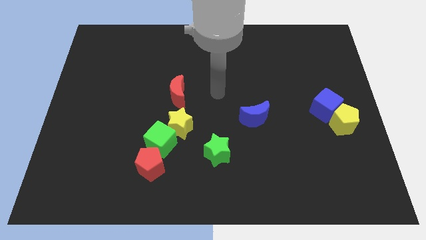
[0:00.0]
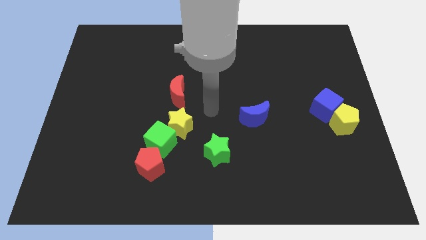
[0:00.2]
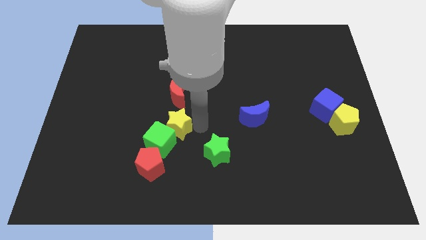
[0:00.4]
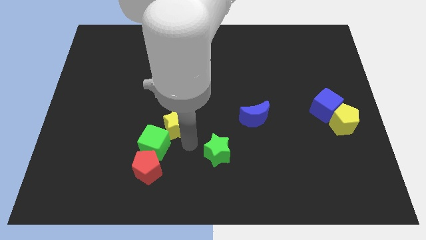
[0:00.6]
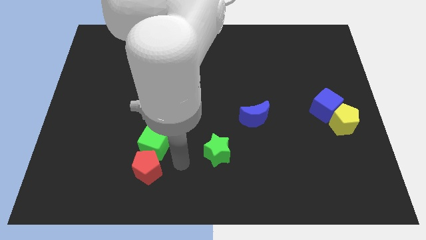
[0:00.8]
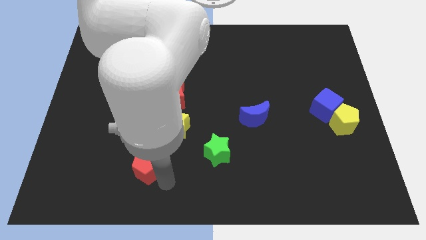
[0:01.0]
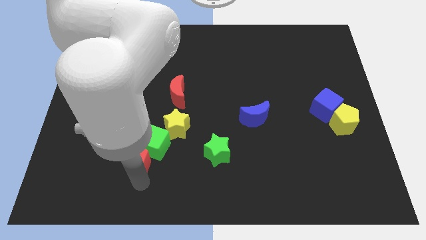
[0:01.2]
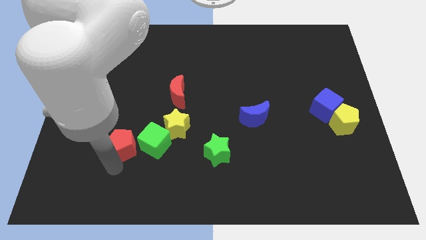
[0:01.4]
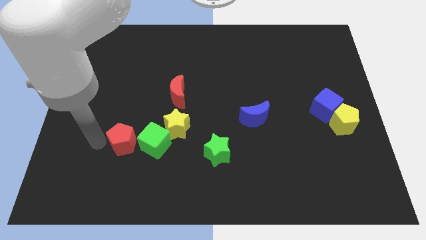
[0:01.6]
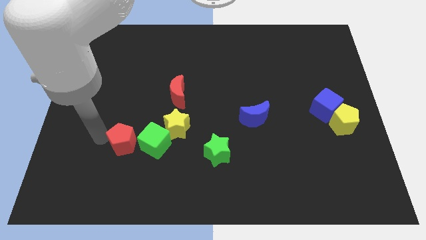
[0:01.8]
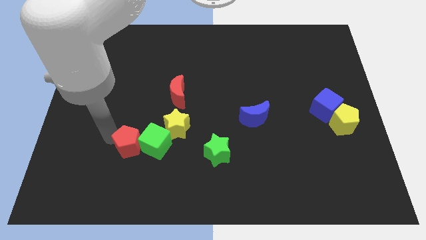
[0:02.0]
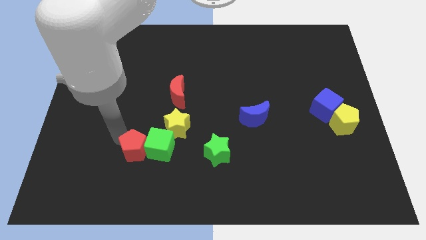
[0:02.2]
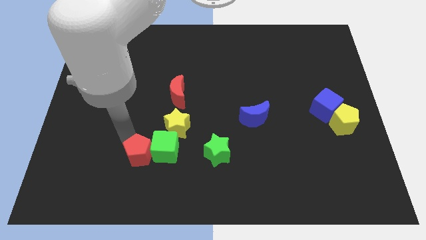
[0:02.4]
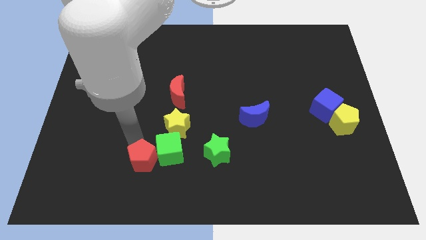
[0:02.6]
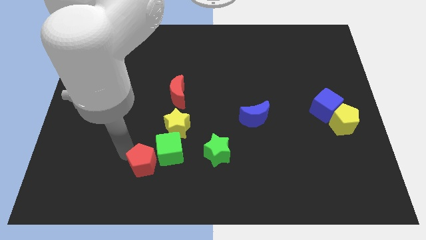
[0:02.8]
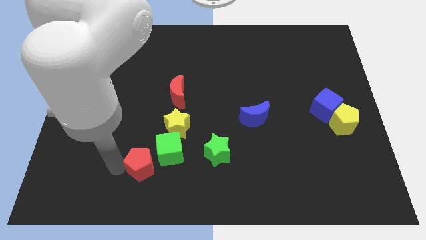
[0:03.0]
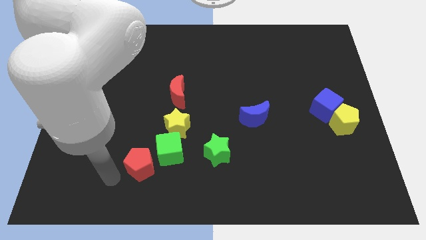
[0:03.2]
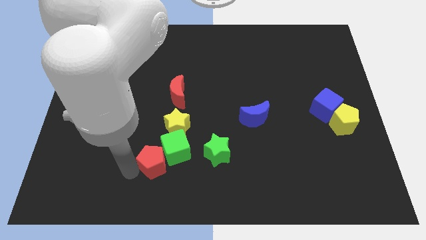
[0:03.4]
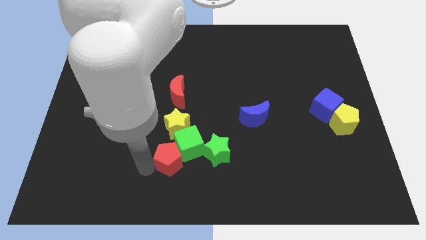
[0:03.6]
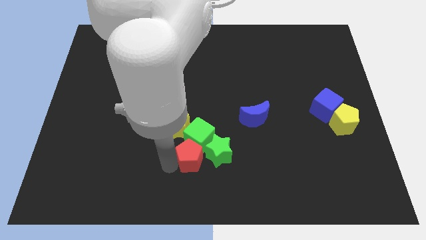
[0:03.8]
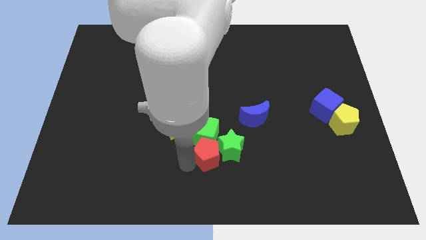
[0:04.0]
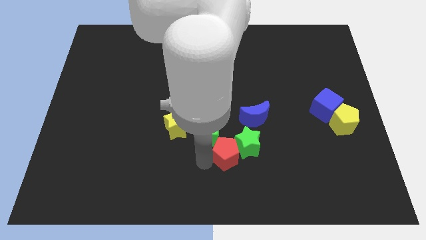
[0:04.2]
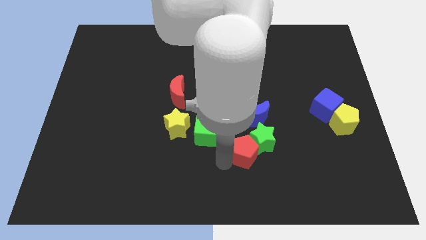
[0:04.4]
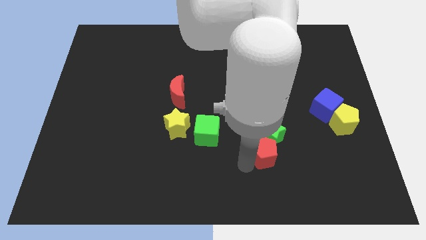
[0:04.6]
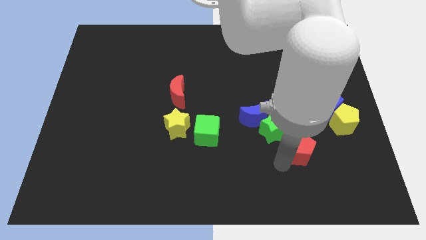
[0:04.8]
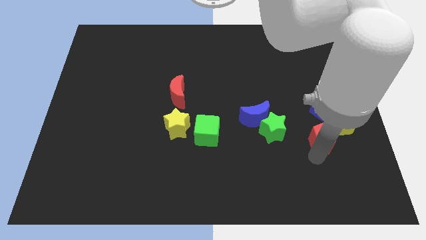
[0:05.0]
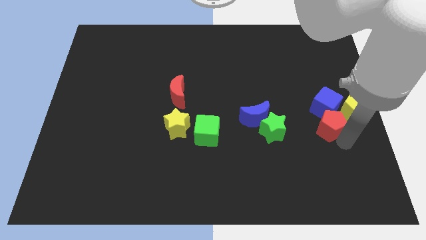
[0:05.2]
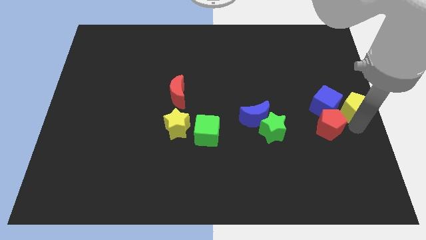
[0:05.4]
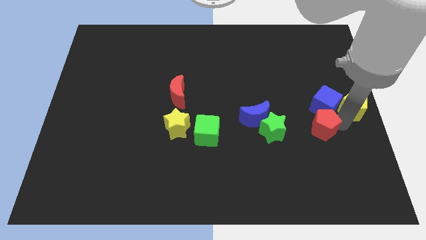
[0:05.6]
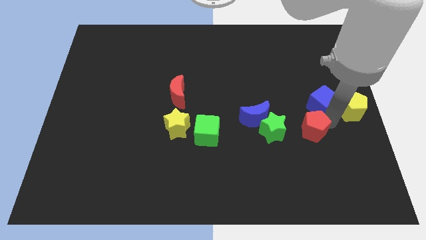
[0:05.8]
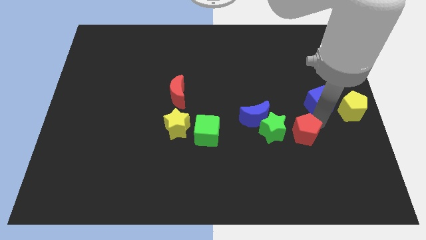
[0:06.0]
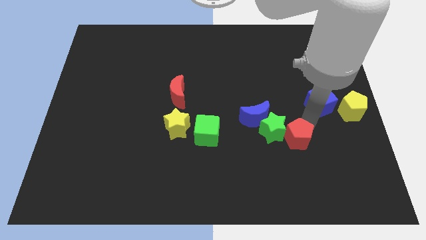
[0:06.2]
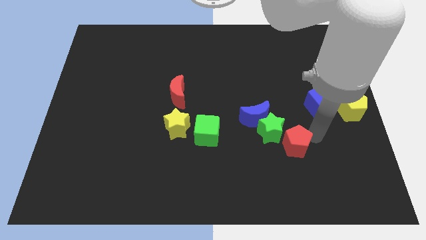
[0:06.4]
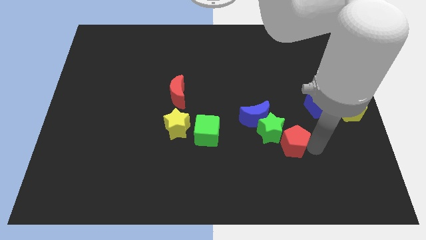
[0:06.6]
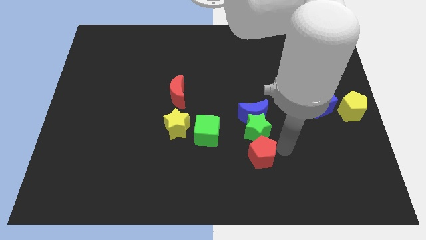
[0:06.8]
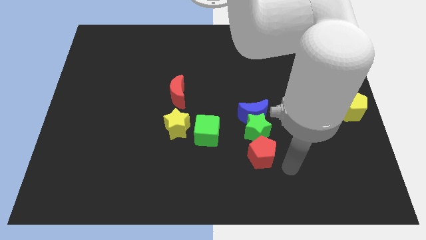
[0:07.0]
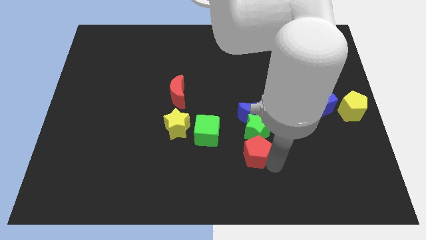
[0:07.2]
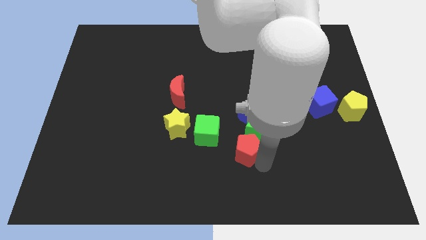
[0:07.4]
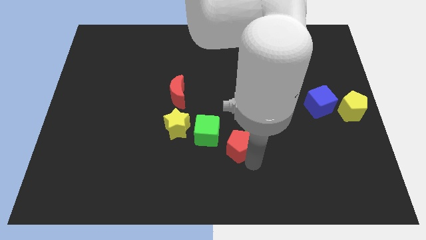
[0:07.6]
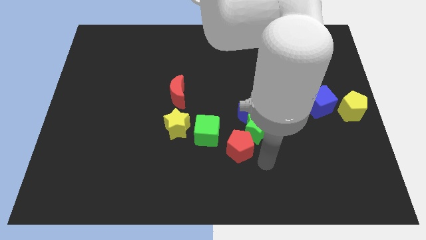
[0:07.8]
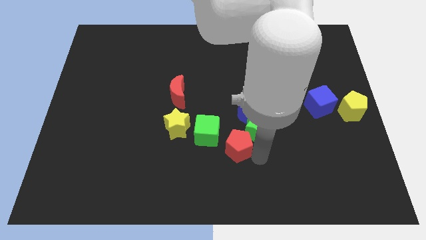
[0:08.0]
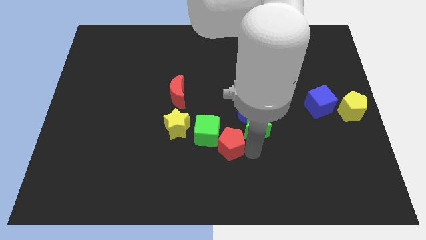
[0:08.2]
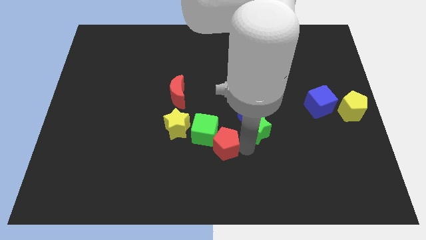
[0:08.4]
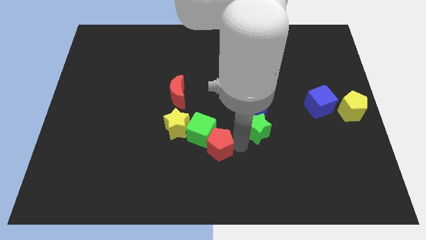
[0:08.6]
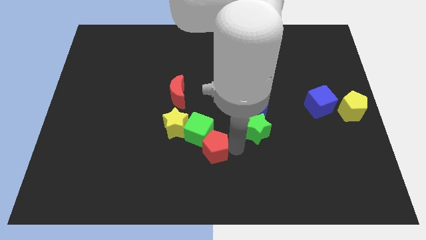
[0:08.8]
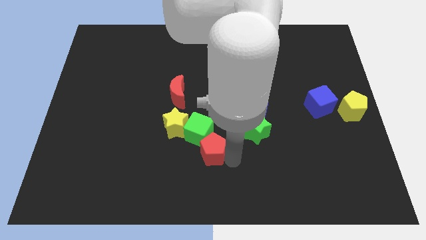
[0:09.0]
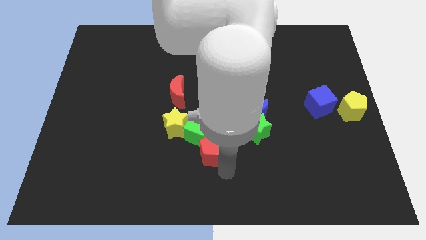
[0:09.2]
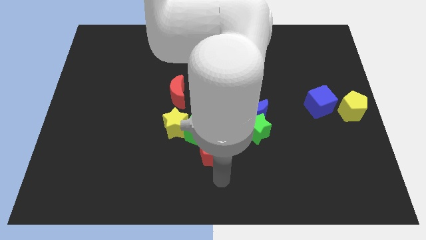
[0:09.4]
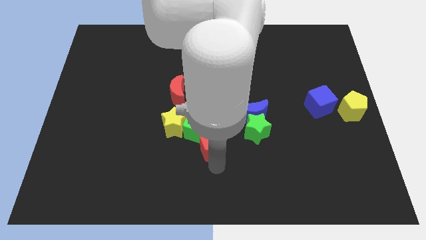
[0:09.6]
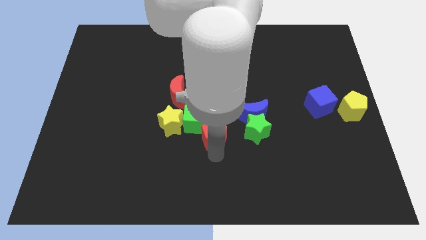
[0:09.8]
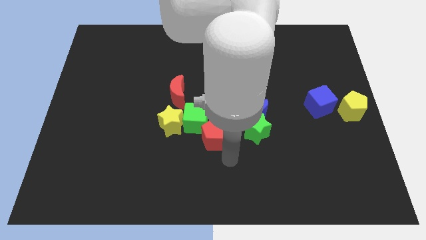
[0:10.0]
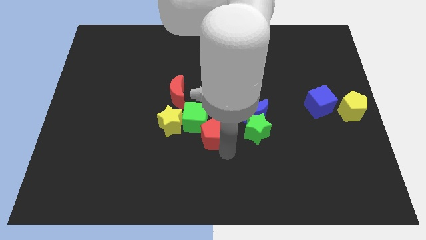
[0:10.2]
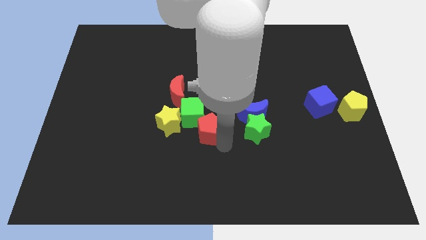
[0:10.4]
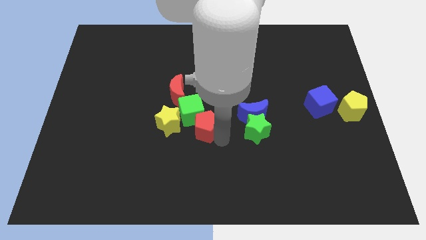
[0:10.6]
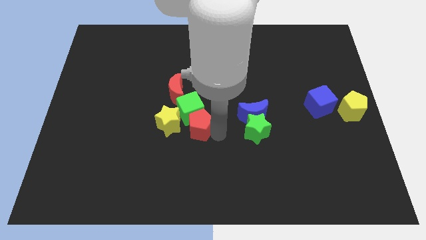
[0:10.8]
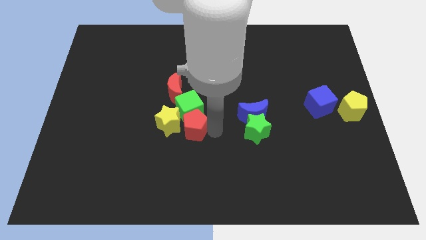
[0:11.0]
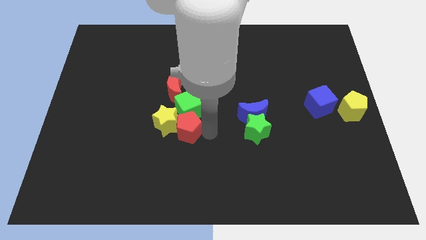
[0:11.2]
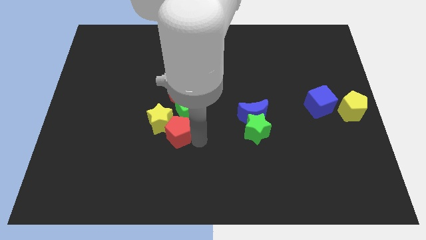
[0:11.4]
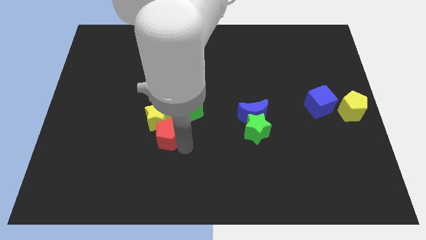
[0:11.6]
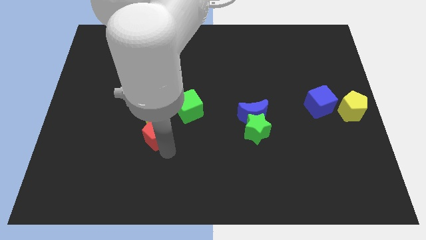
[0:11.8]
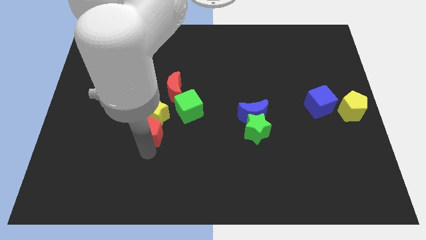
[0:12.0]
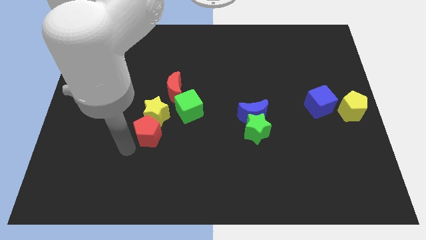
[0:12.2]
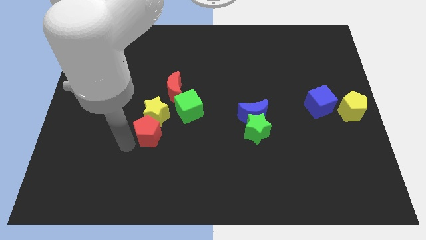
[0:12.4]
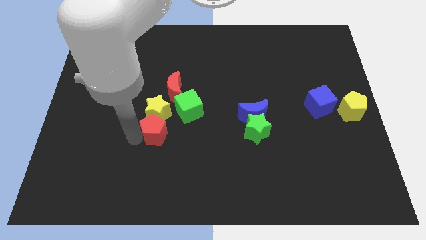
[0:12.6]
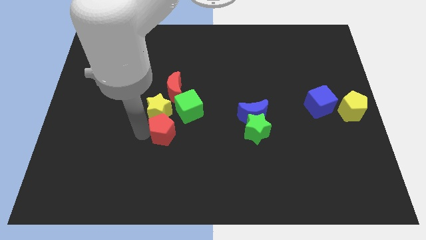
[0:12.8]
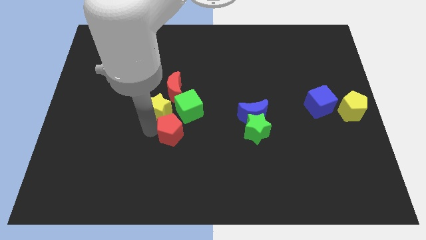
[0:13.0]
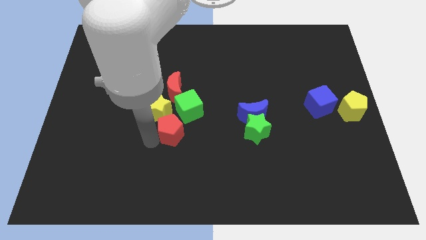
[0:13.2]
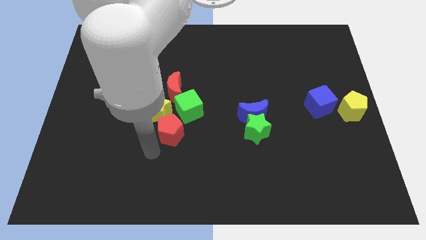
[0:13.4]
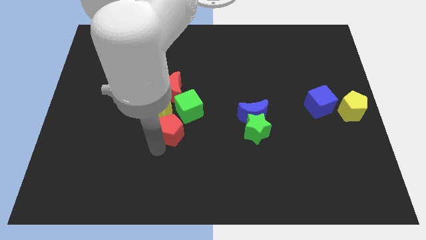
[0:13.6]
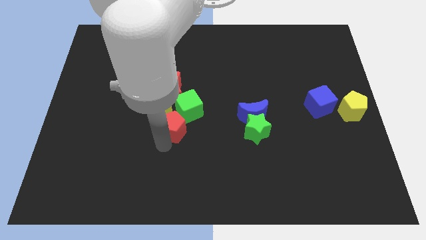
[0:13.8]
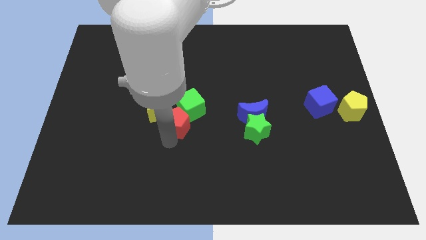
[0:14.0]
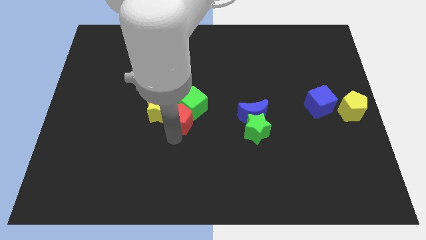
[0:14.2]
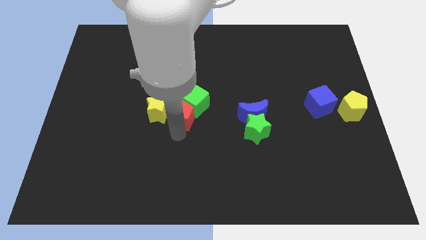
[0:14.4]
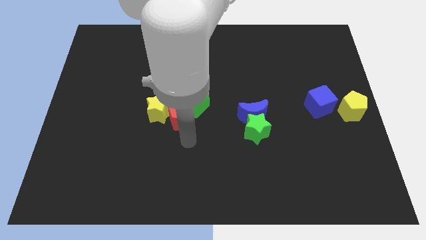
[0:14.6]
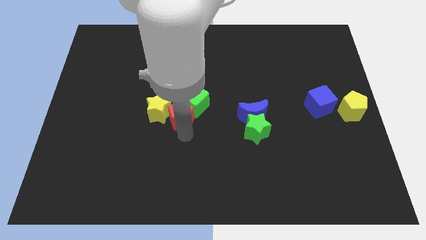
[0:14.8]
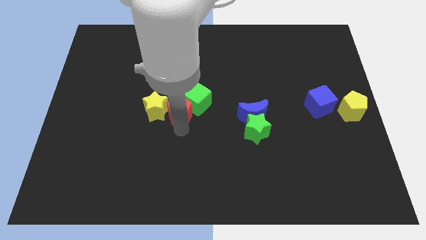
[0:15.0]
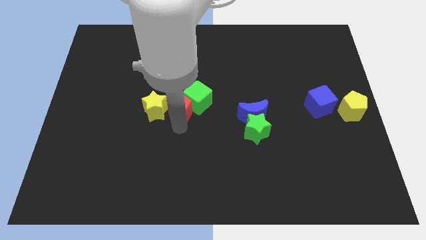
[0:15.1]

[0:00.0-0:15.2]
slide the red pentagon towards the red moon
